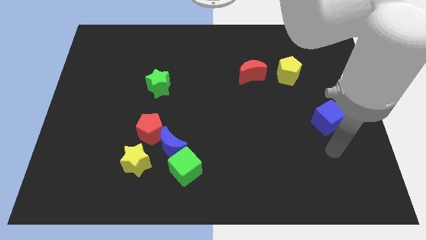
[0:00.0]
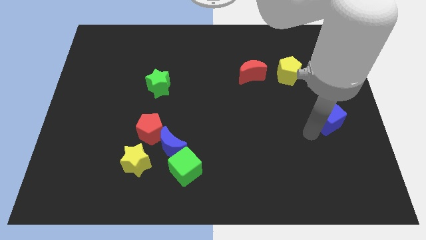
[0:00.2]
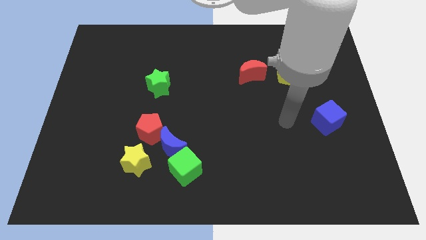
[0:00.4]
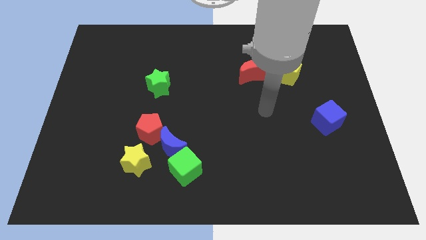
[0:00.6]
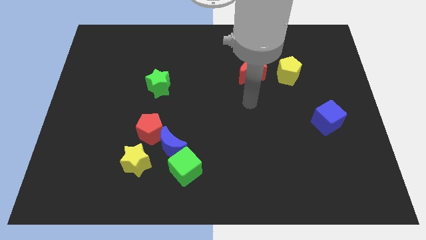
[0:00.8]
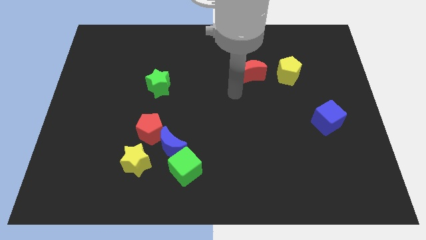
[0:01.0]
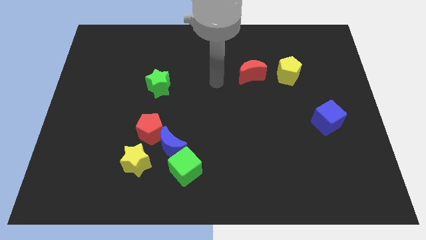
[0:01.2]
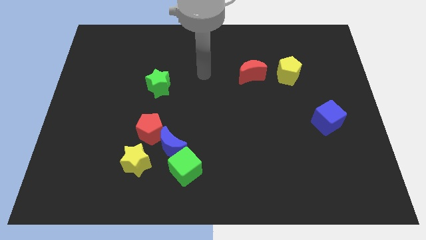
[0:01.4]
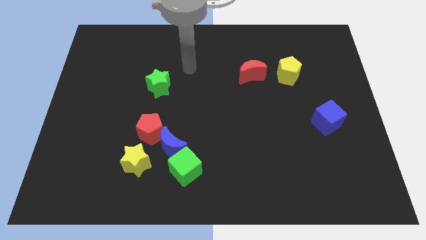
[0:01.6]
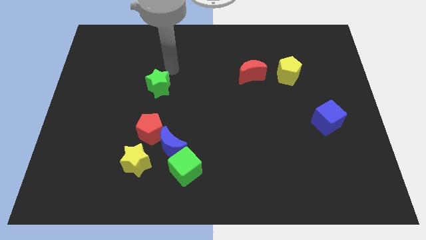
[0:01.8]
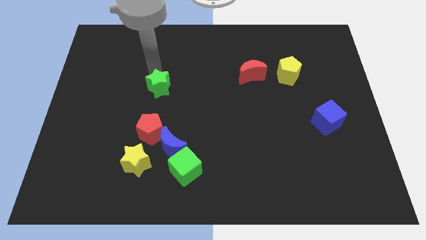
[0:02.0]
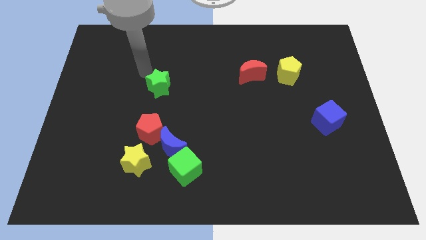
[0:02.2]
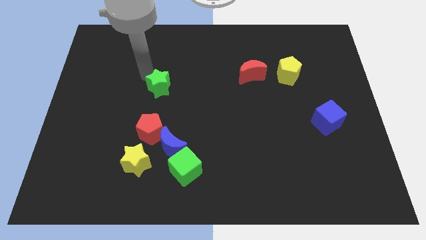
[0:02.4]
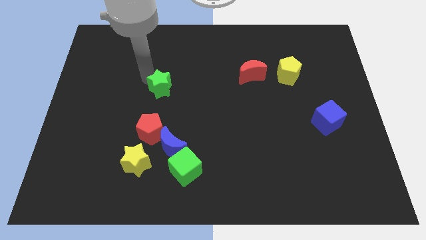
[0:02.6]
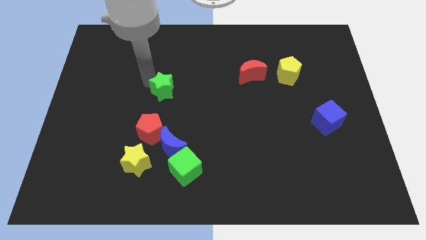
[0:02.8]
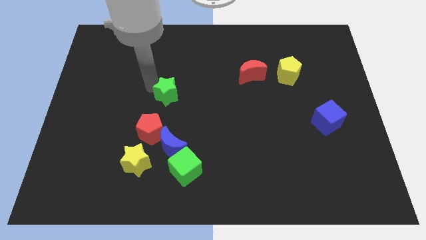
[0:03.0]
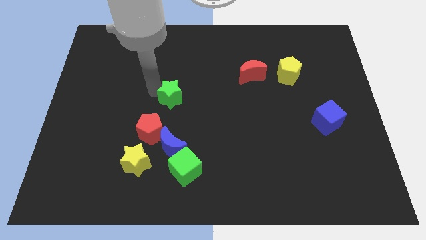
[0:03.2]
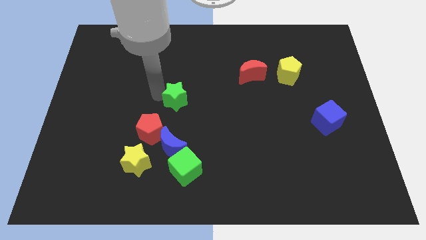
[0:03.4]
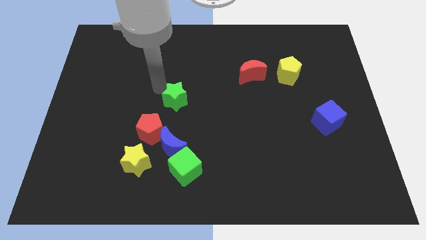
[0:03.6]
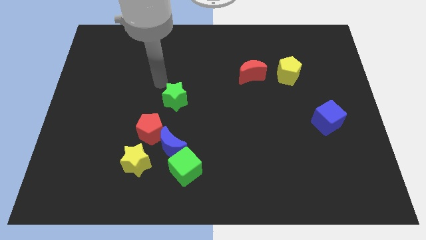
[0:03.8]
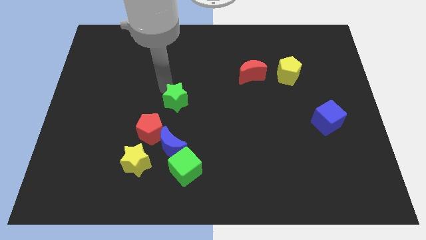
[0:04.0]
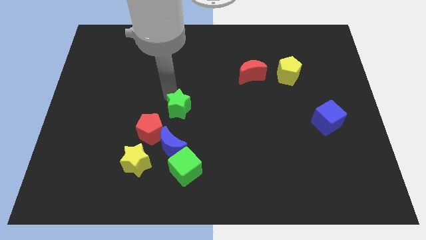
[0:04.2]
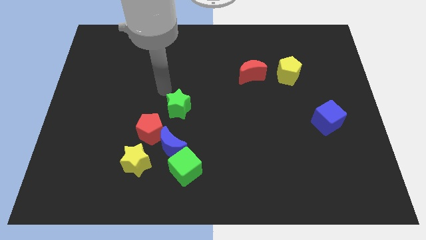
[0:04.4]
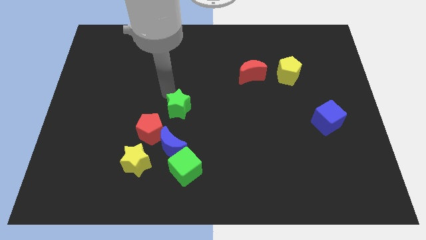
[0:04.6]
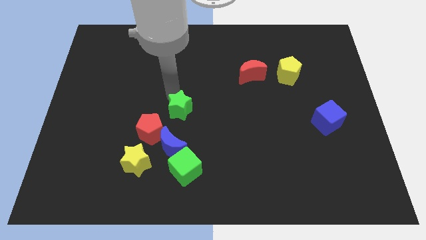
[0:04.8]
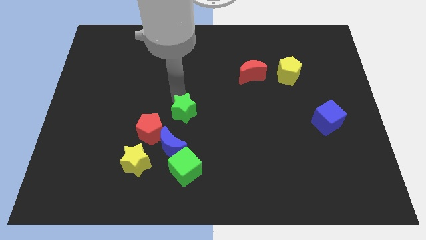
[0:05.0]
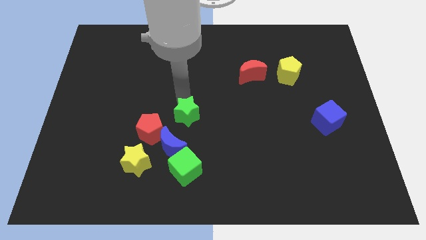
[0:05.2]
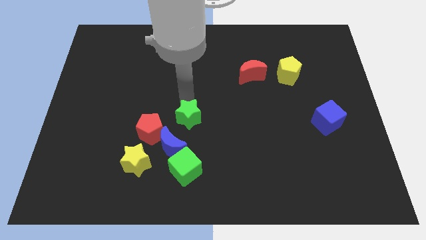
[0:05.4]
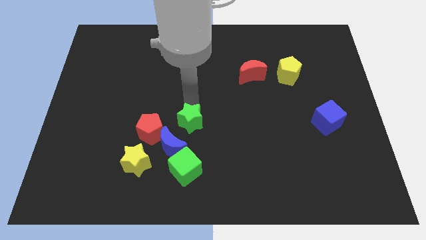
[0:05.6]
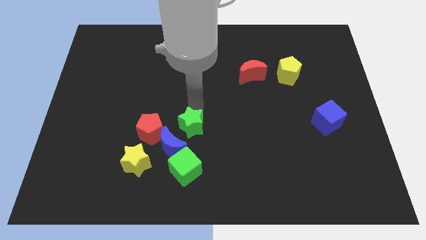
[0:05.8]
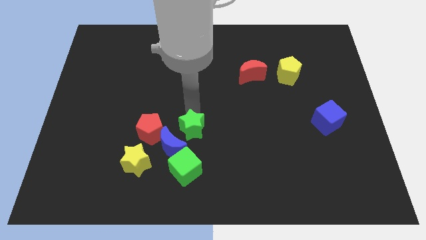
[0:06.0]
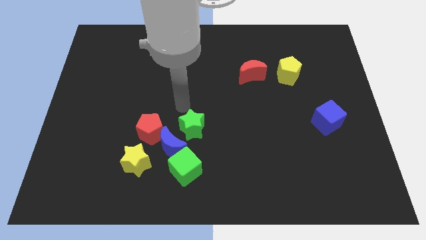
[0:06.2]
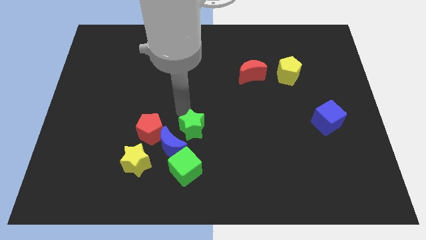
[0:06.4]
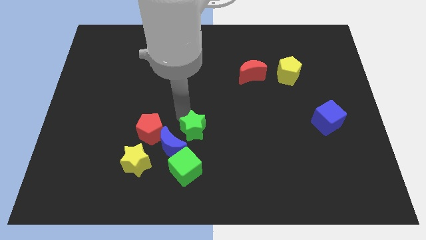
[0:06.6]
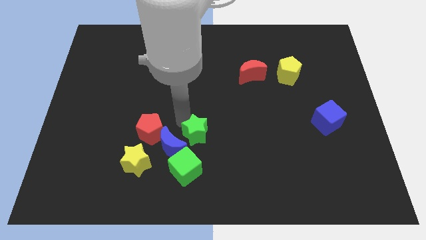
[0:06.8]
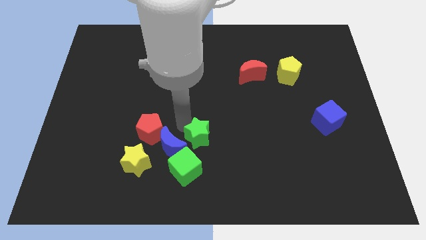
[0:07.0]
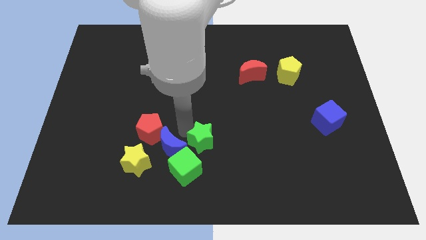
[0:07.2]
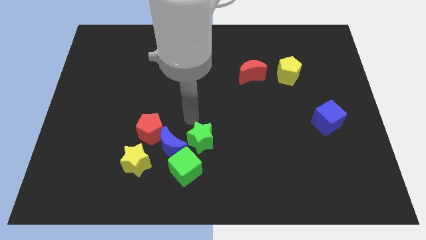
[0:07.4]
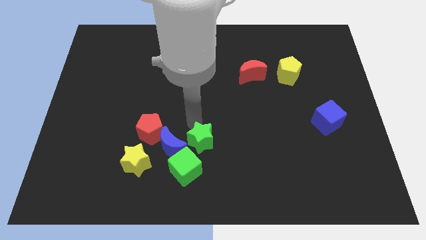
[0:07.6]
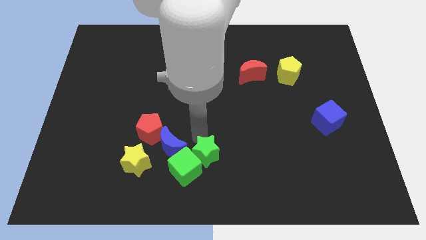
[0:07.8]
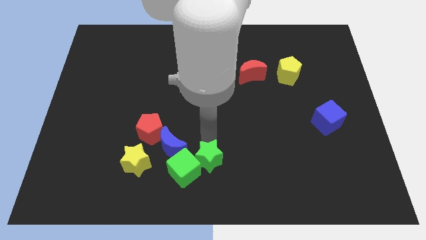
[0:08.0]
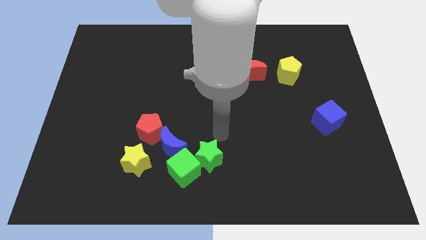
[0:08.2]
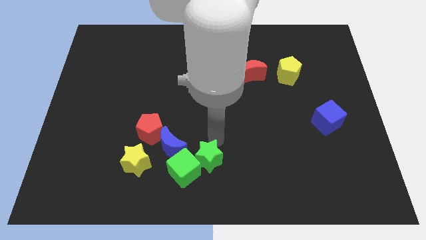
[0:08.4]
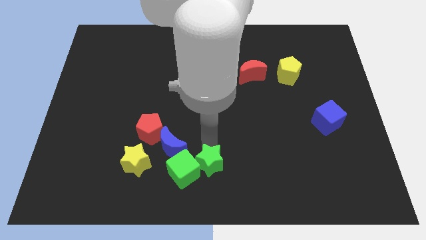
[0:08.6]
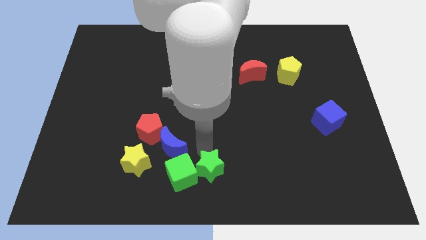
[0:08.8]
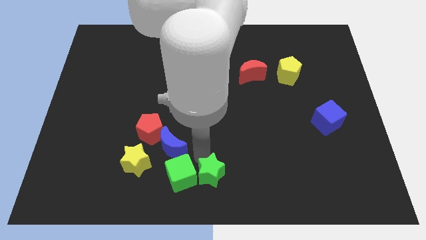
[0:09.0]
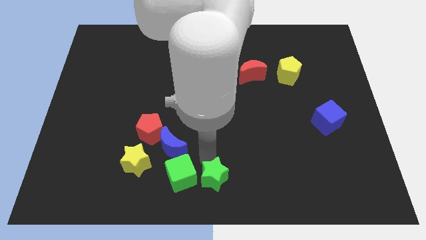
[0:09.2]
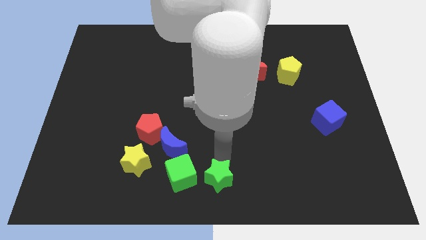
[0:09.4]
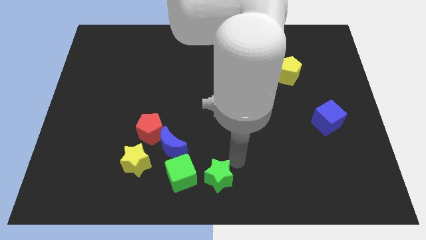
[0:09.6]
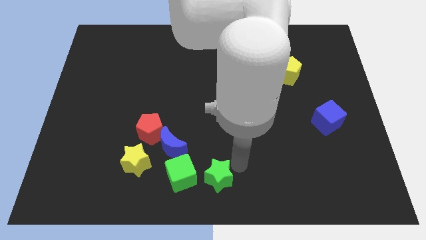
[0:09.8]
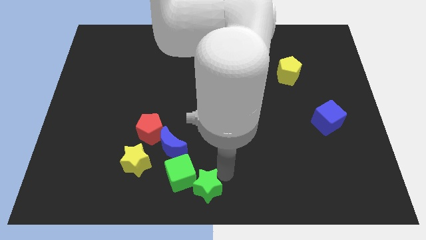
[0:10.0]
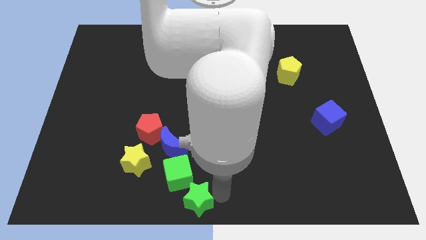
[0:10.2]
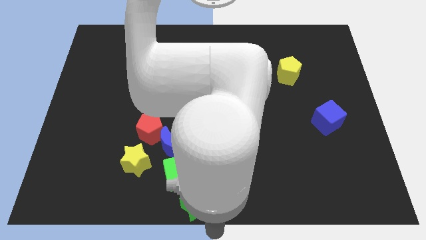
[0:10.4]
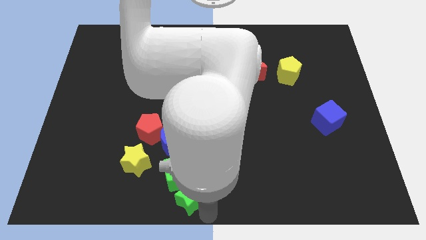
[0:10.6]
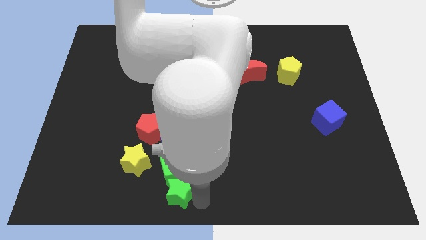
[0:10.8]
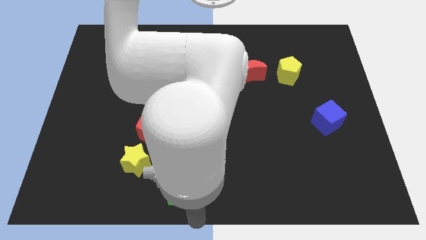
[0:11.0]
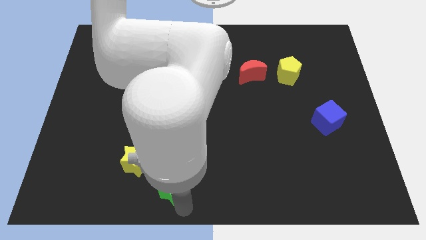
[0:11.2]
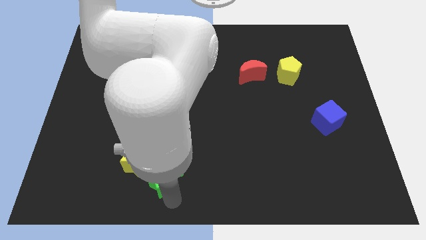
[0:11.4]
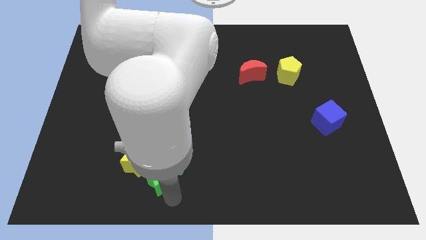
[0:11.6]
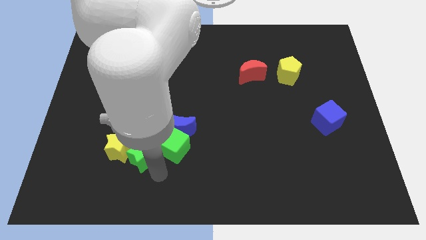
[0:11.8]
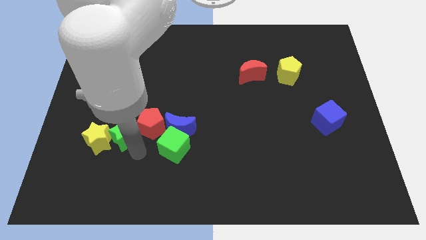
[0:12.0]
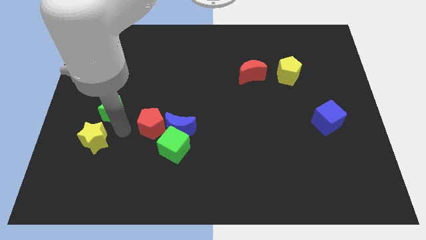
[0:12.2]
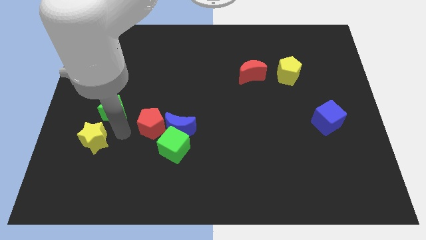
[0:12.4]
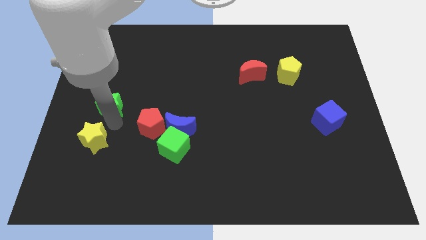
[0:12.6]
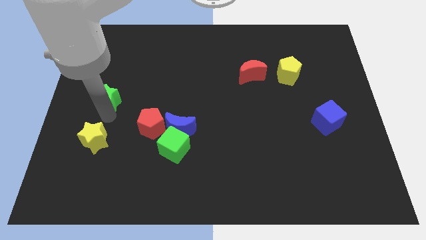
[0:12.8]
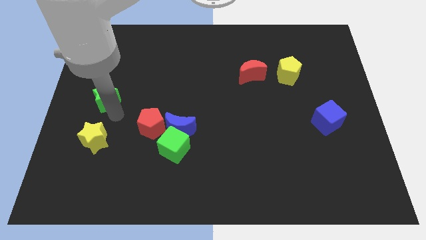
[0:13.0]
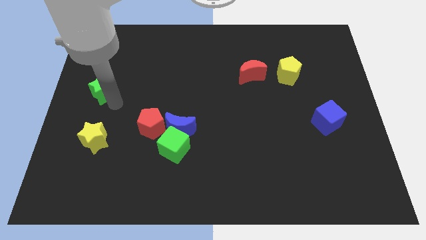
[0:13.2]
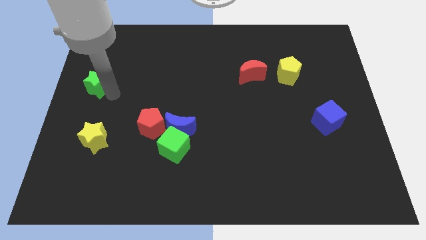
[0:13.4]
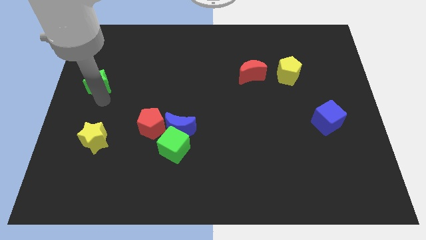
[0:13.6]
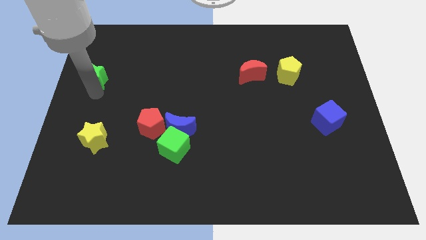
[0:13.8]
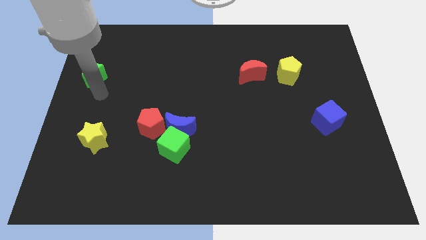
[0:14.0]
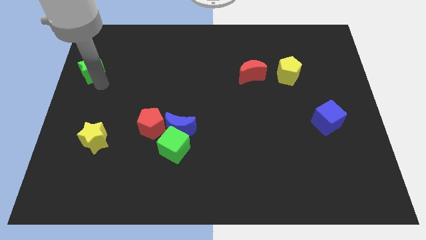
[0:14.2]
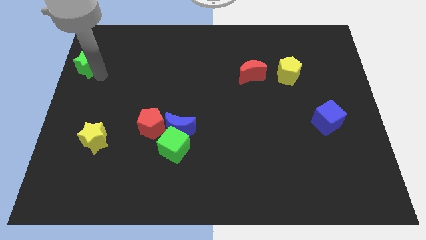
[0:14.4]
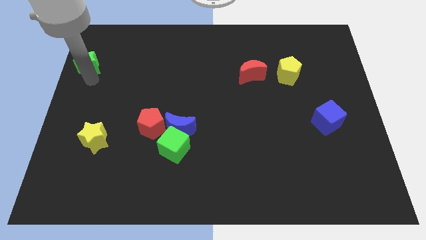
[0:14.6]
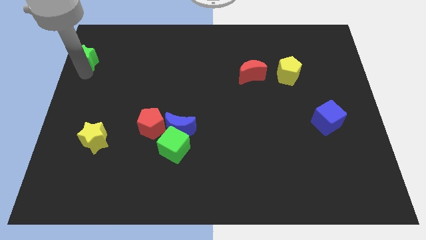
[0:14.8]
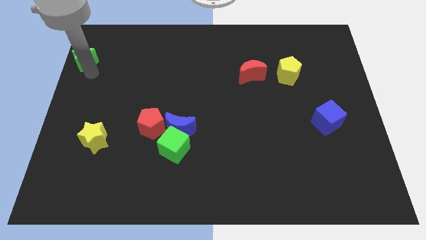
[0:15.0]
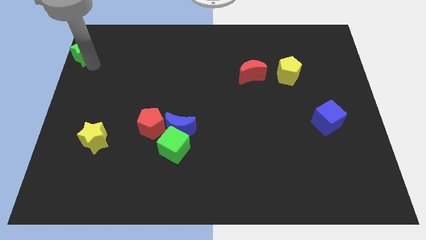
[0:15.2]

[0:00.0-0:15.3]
put the green star to the upper left corner
